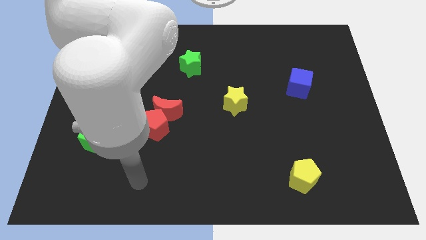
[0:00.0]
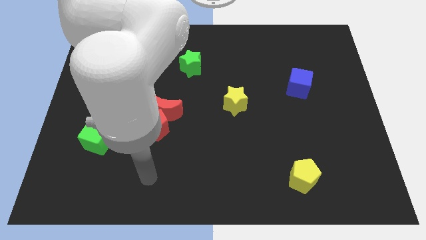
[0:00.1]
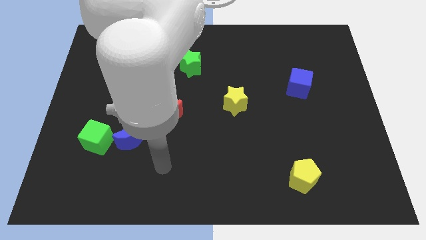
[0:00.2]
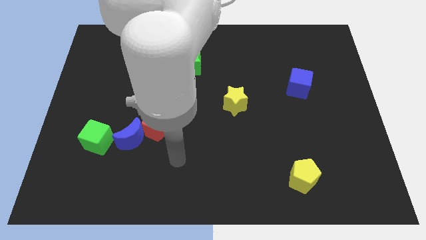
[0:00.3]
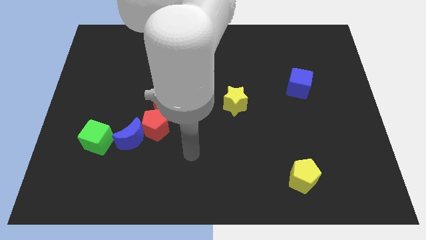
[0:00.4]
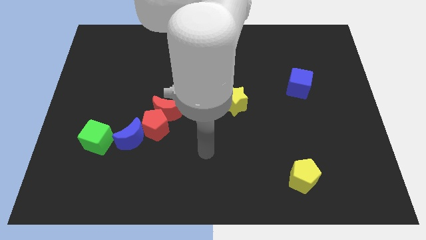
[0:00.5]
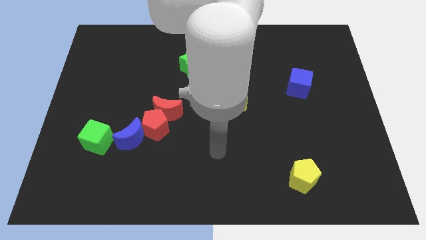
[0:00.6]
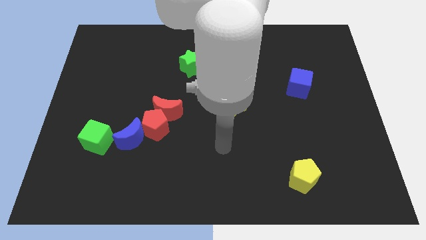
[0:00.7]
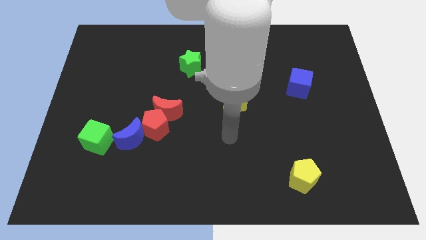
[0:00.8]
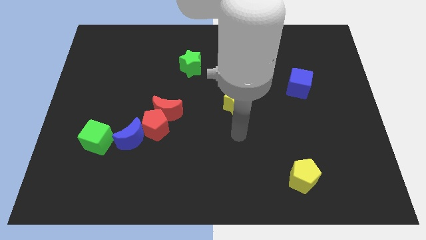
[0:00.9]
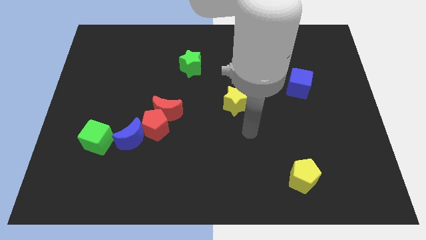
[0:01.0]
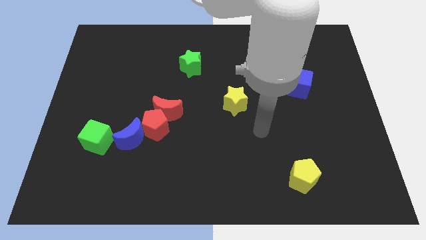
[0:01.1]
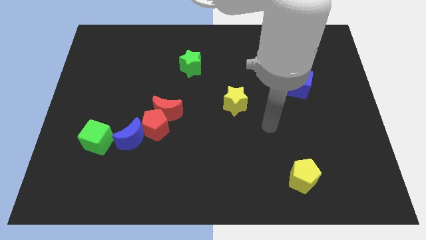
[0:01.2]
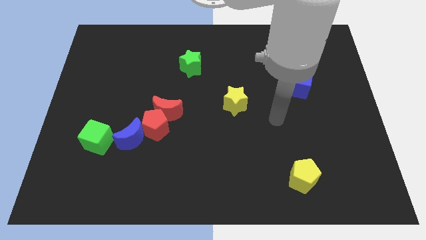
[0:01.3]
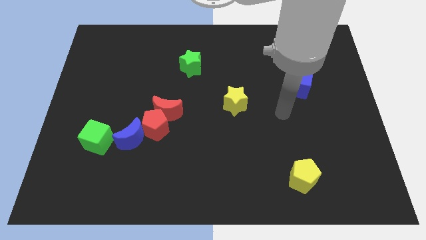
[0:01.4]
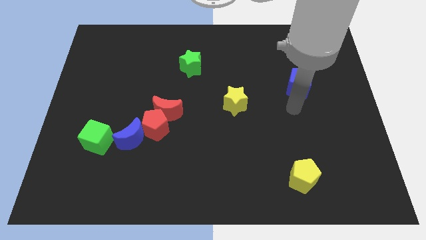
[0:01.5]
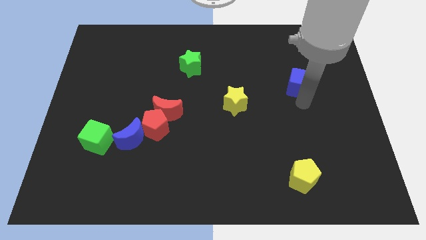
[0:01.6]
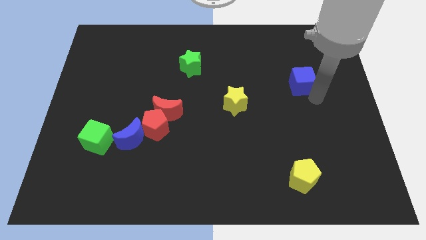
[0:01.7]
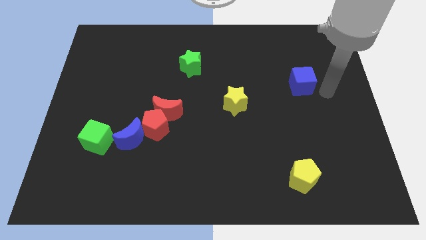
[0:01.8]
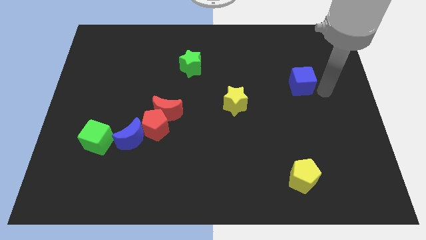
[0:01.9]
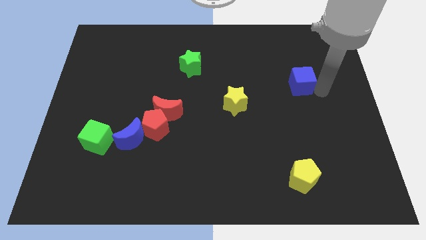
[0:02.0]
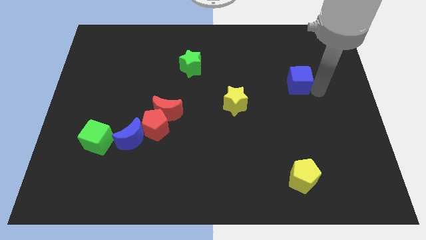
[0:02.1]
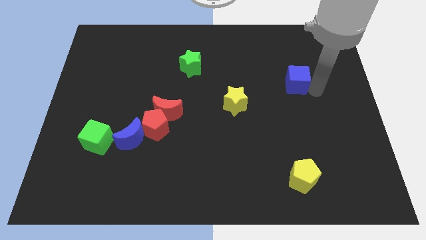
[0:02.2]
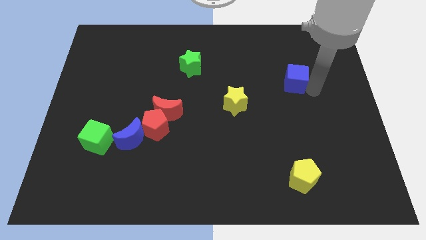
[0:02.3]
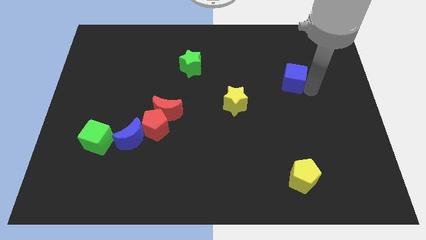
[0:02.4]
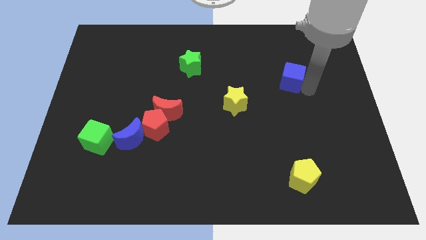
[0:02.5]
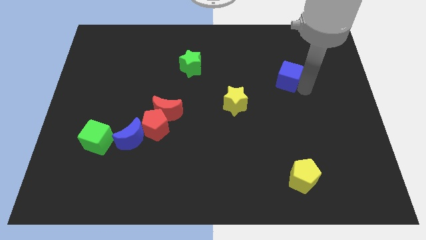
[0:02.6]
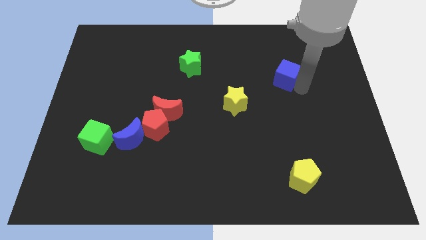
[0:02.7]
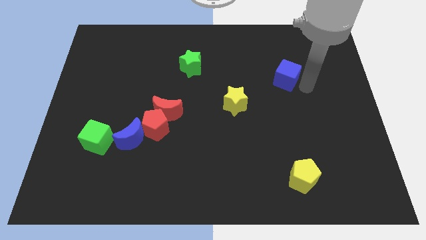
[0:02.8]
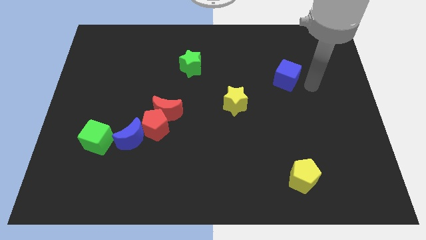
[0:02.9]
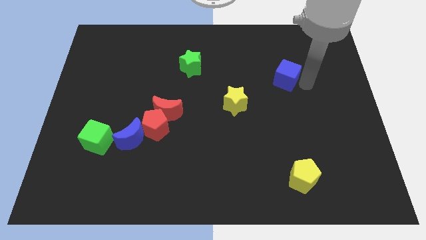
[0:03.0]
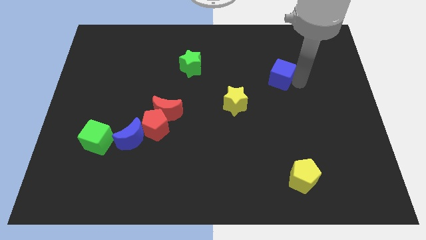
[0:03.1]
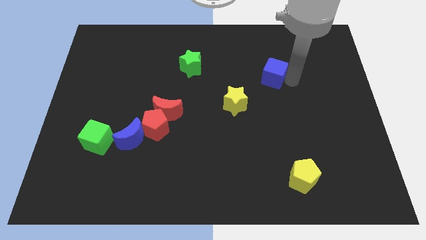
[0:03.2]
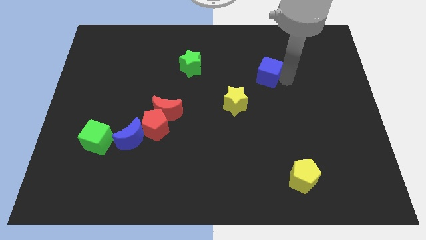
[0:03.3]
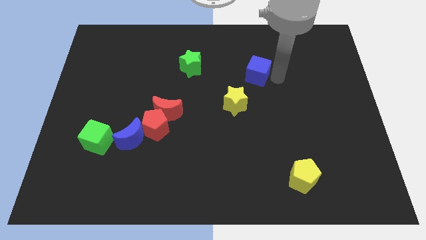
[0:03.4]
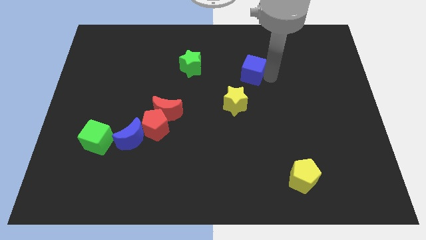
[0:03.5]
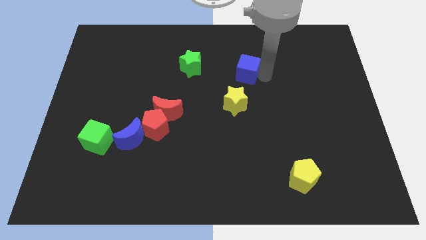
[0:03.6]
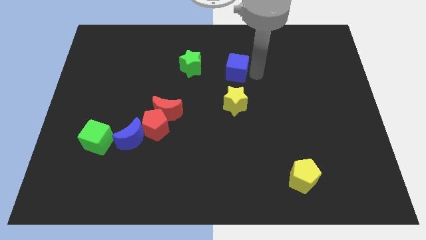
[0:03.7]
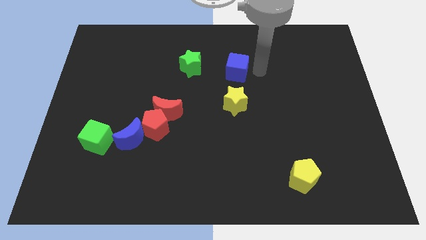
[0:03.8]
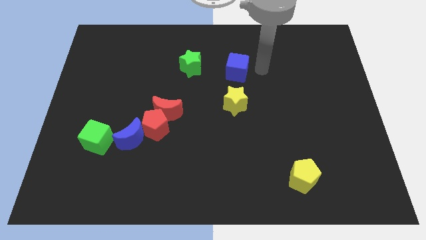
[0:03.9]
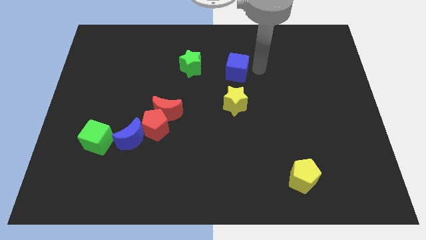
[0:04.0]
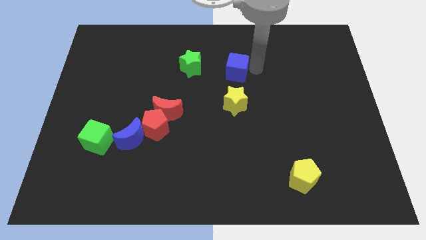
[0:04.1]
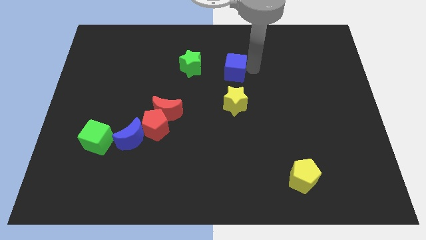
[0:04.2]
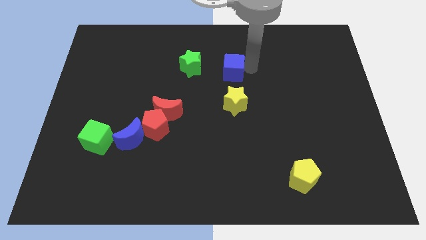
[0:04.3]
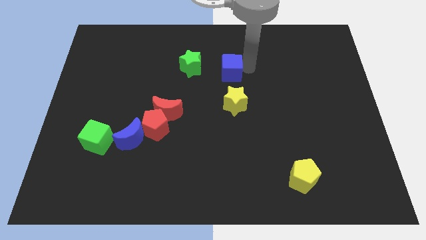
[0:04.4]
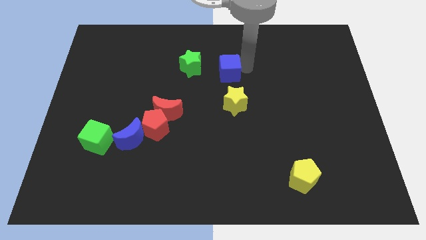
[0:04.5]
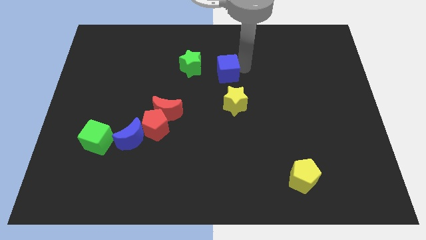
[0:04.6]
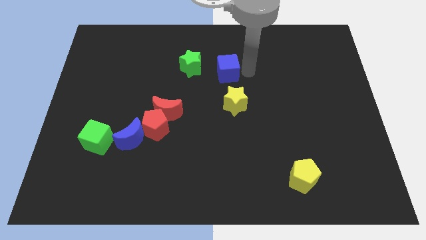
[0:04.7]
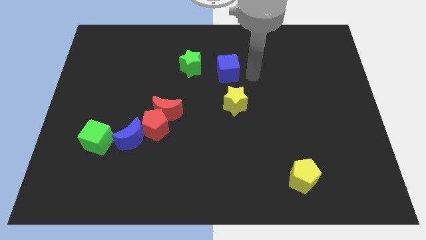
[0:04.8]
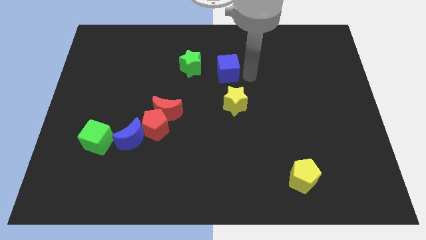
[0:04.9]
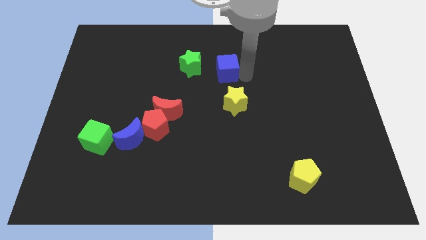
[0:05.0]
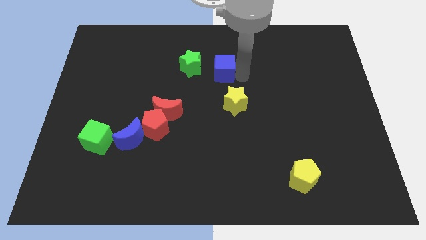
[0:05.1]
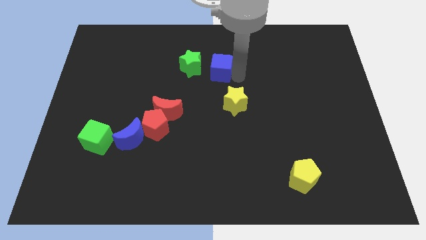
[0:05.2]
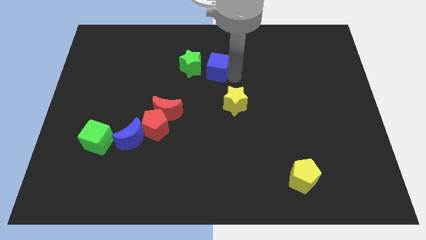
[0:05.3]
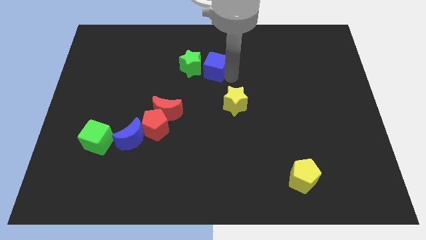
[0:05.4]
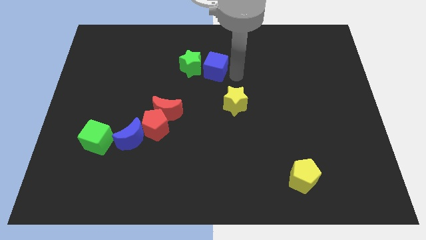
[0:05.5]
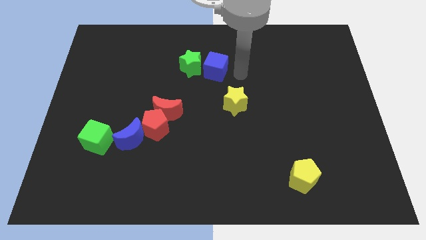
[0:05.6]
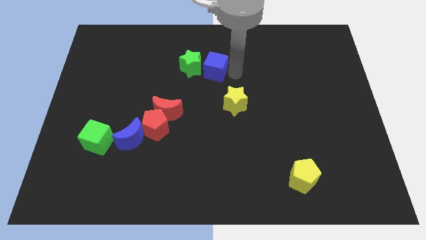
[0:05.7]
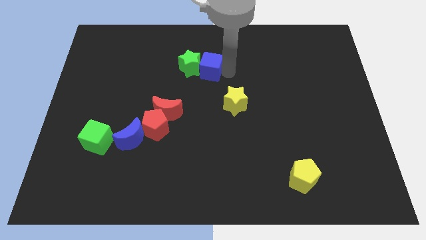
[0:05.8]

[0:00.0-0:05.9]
put the blue cube next to the green star

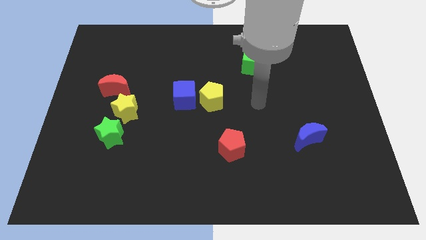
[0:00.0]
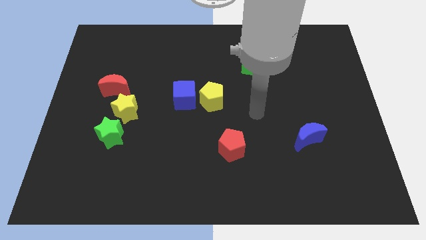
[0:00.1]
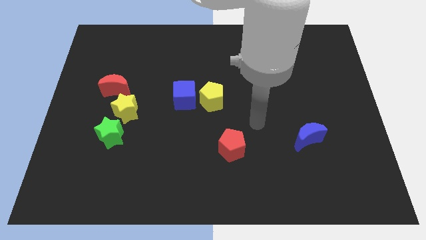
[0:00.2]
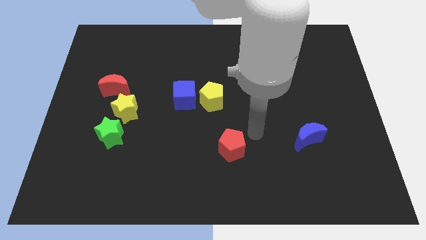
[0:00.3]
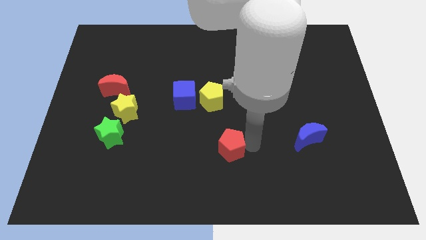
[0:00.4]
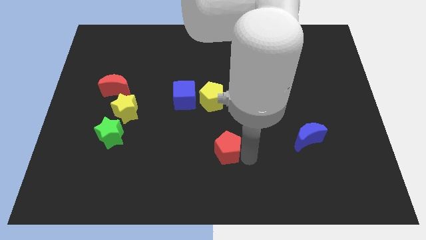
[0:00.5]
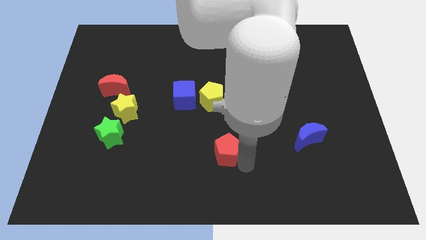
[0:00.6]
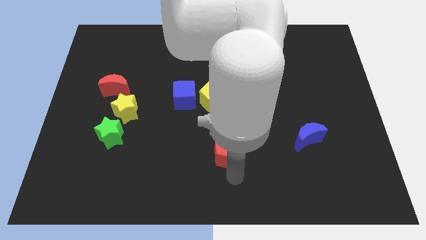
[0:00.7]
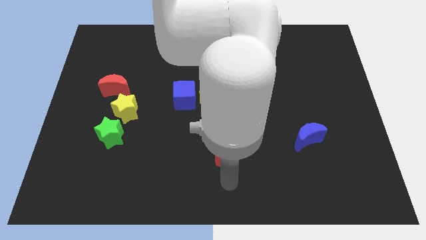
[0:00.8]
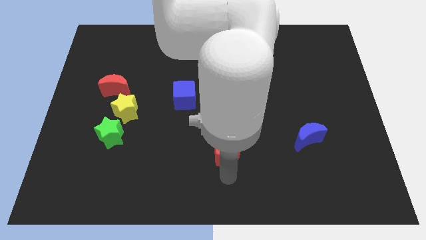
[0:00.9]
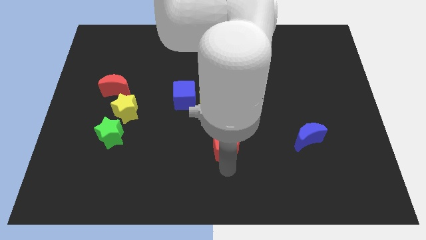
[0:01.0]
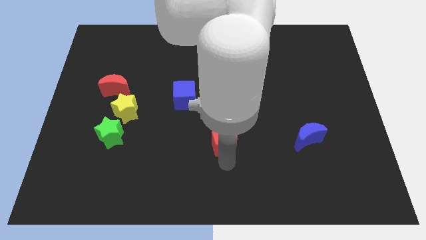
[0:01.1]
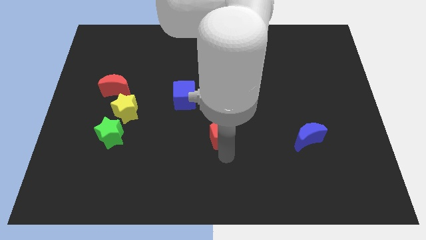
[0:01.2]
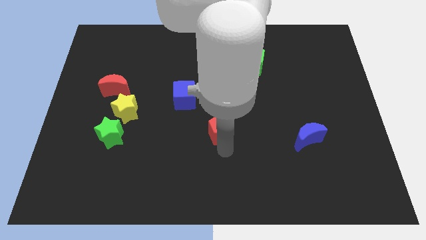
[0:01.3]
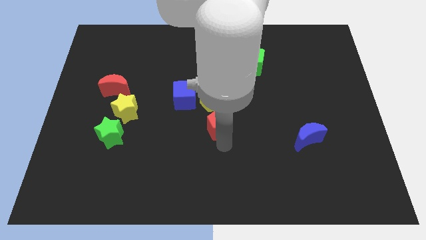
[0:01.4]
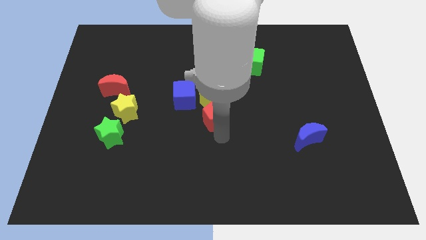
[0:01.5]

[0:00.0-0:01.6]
slide the red pentagon towards the yellow pentagon
